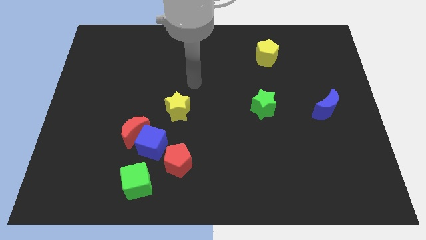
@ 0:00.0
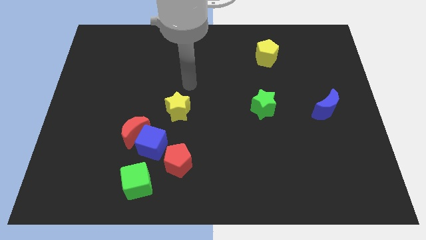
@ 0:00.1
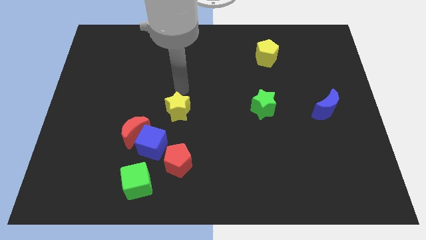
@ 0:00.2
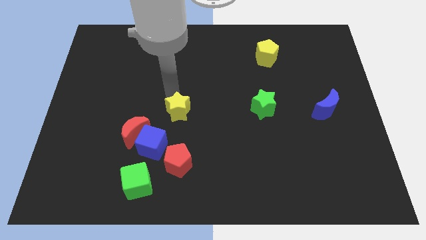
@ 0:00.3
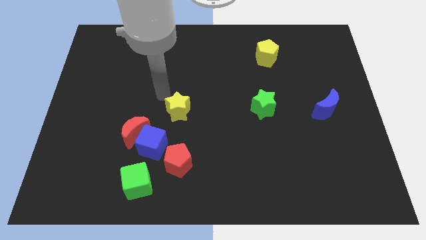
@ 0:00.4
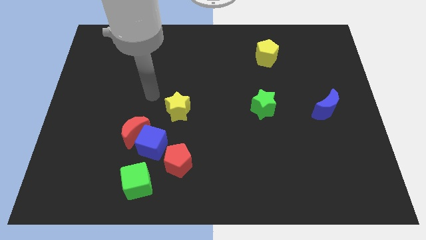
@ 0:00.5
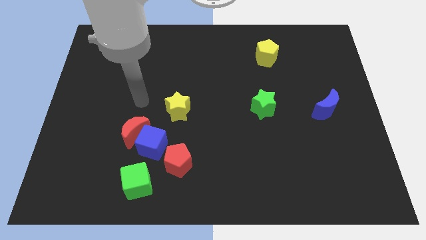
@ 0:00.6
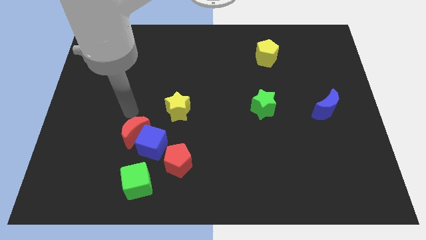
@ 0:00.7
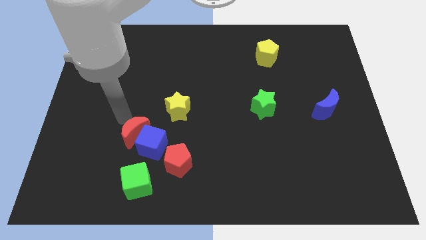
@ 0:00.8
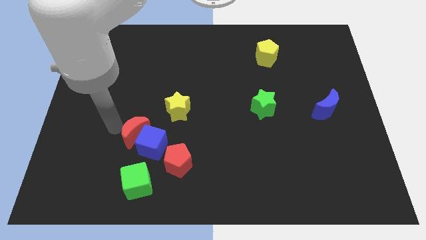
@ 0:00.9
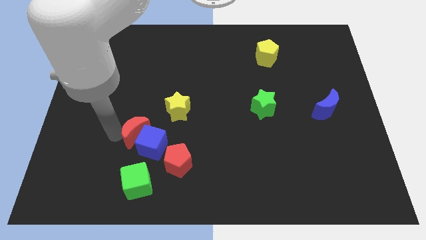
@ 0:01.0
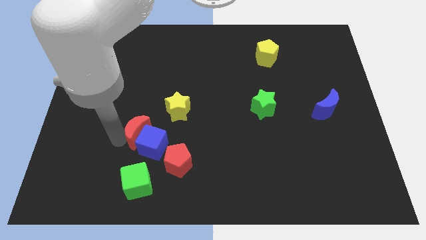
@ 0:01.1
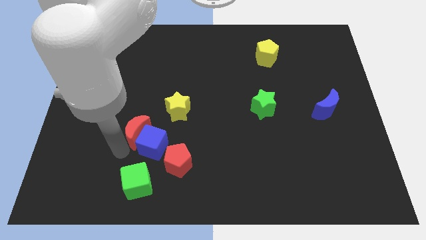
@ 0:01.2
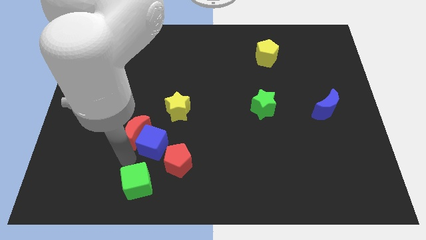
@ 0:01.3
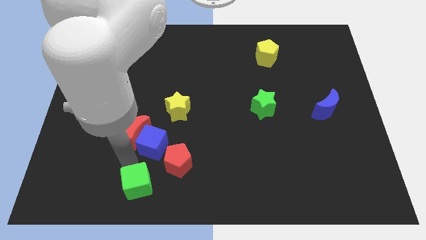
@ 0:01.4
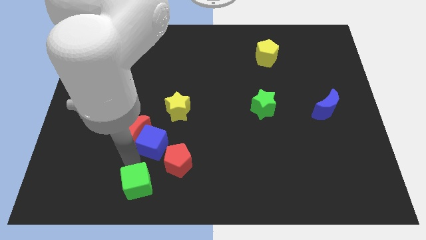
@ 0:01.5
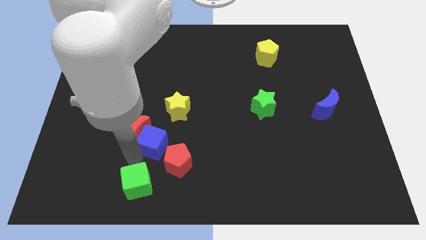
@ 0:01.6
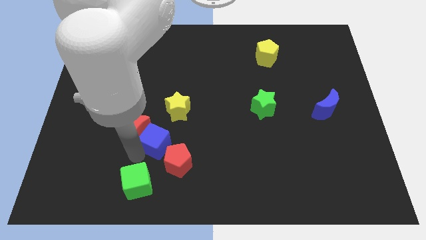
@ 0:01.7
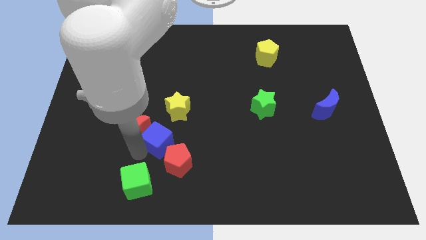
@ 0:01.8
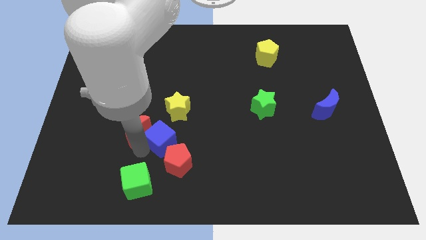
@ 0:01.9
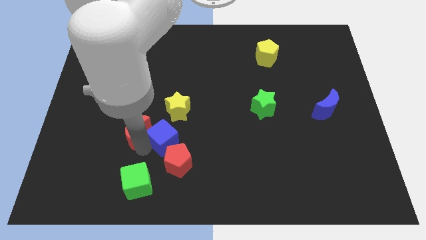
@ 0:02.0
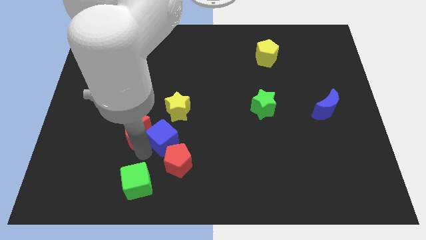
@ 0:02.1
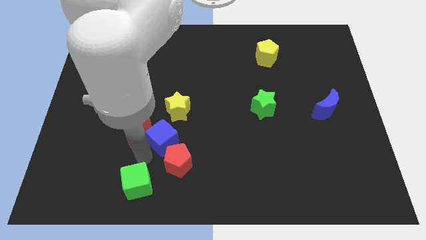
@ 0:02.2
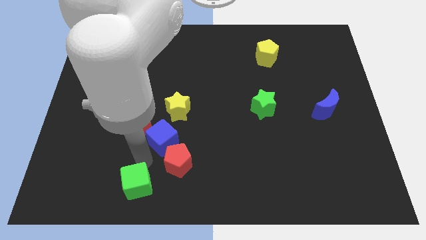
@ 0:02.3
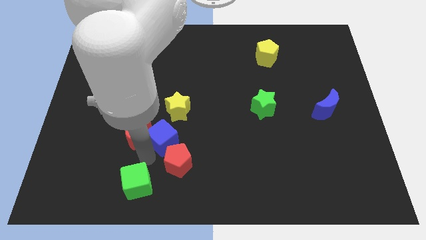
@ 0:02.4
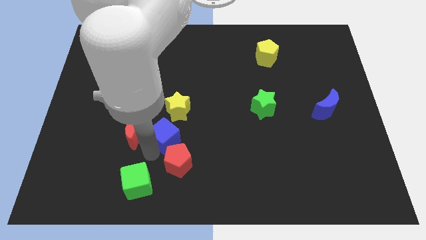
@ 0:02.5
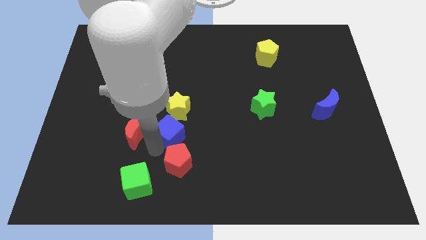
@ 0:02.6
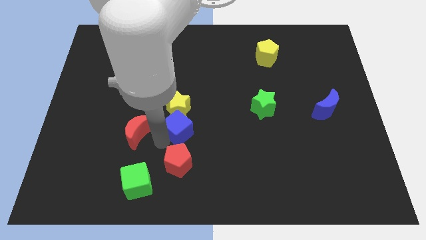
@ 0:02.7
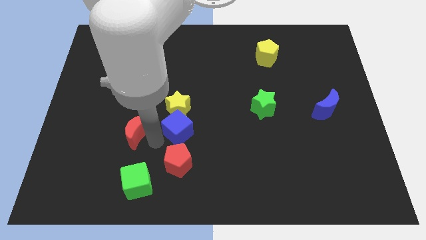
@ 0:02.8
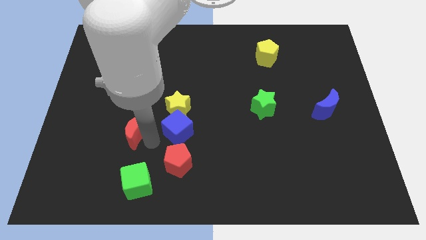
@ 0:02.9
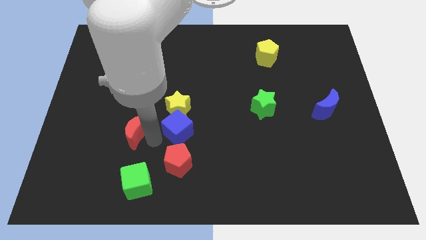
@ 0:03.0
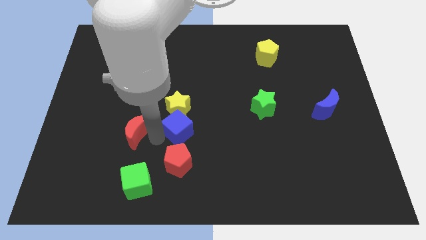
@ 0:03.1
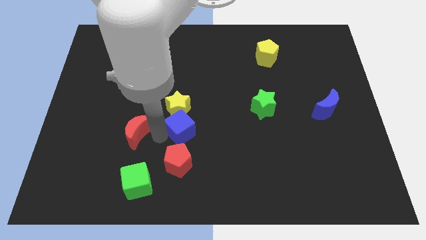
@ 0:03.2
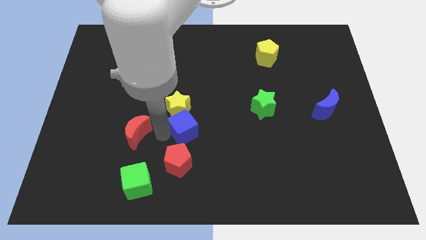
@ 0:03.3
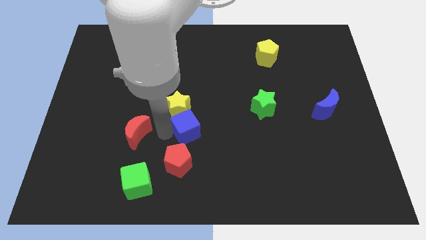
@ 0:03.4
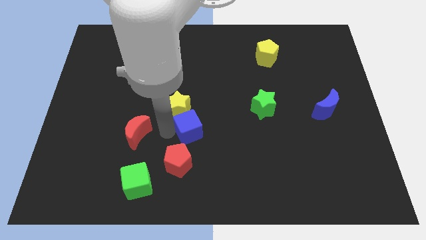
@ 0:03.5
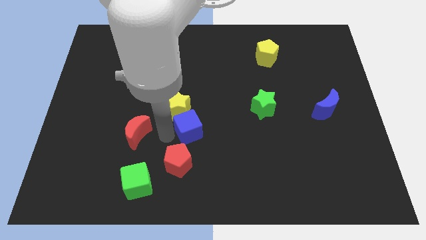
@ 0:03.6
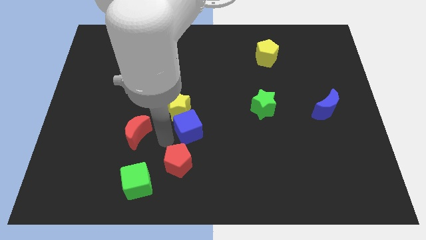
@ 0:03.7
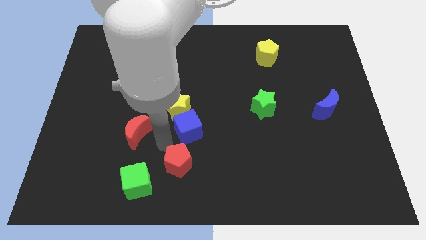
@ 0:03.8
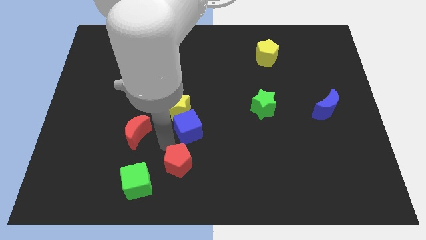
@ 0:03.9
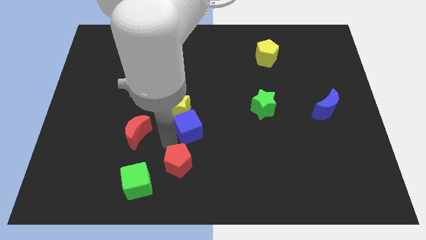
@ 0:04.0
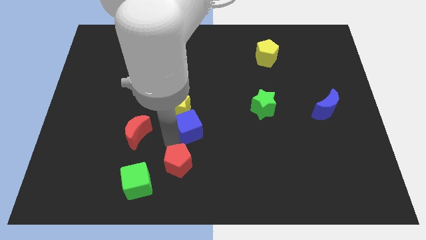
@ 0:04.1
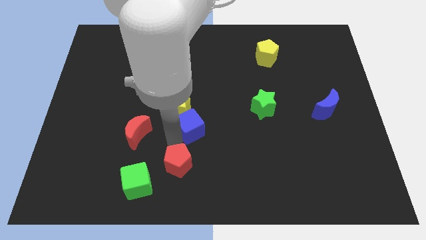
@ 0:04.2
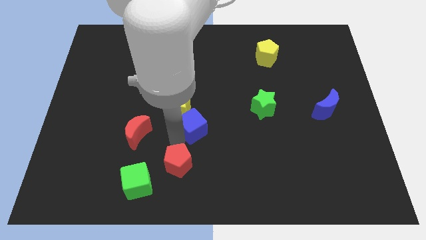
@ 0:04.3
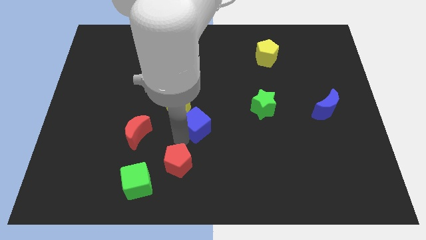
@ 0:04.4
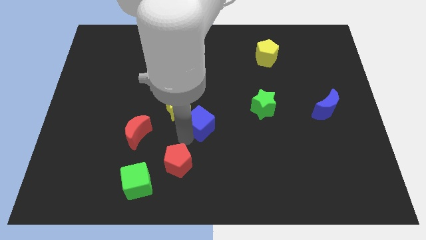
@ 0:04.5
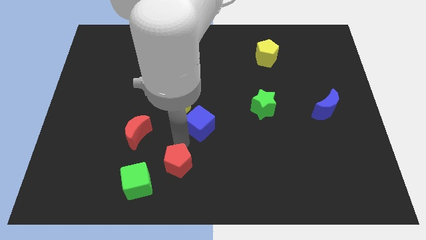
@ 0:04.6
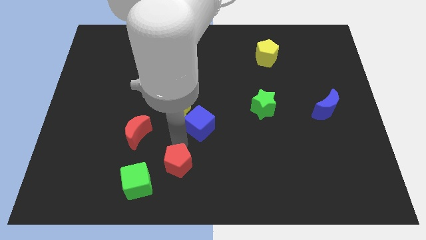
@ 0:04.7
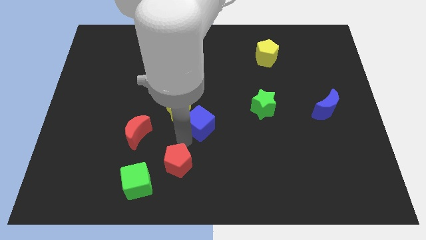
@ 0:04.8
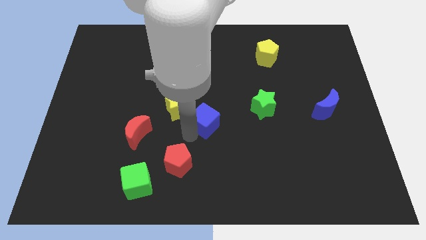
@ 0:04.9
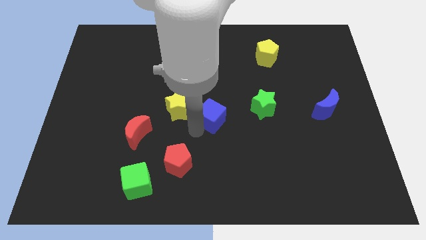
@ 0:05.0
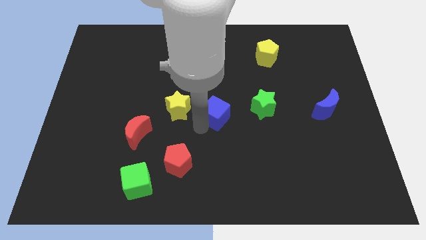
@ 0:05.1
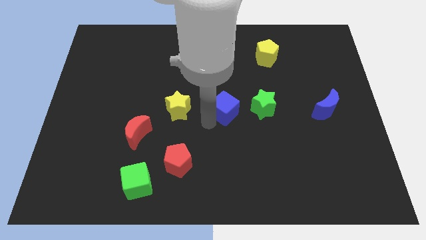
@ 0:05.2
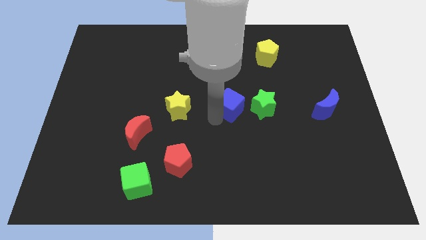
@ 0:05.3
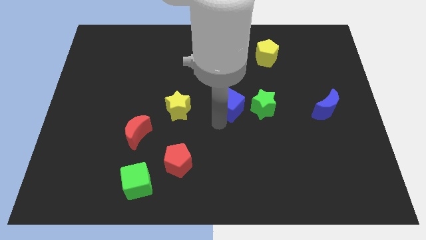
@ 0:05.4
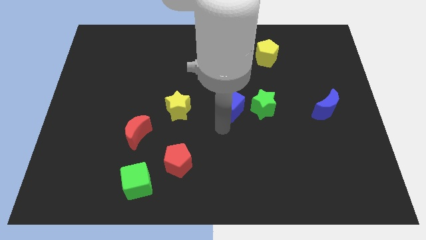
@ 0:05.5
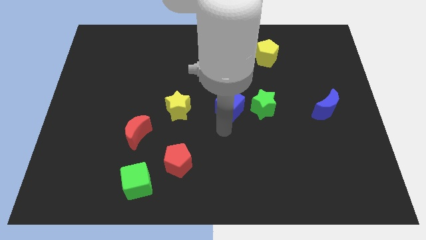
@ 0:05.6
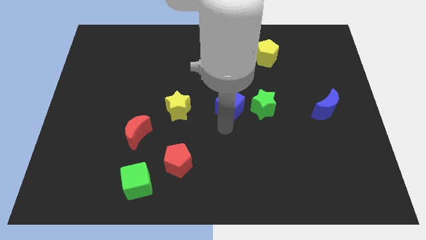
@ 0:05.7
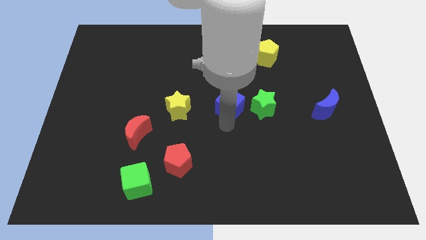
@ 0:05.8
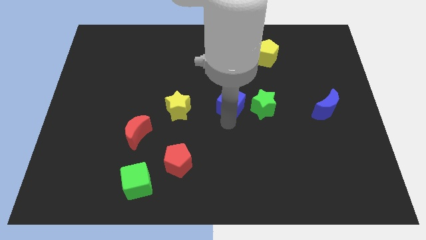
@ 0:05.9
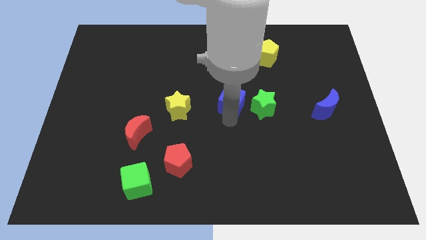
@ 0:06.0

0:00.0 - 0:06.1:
slide the blue cube upwards and right diagonally

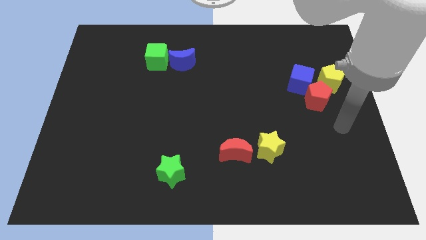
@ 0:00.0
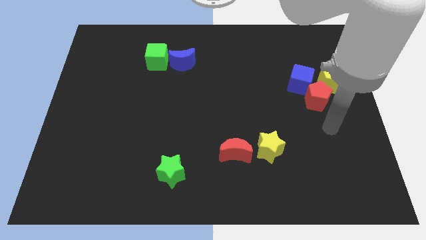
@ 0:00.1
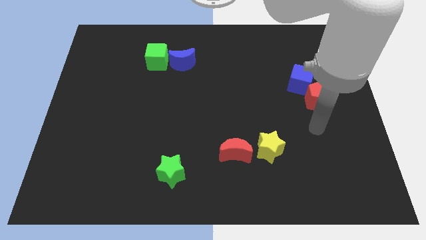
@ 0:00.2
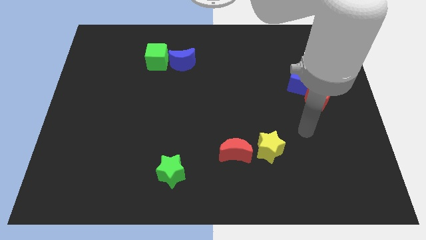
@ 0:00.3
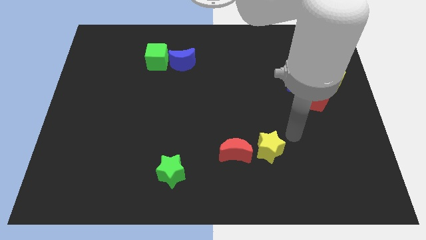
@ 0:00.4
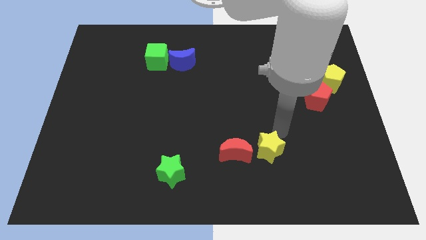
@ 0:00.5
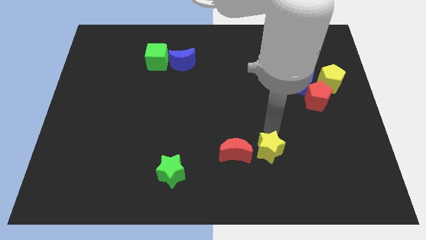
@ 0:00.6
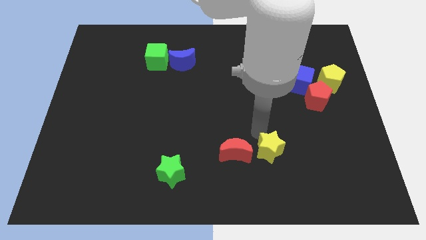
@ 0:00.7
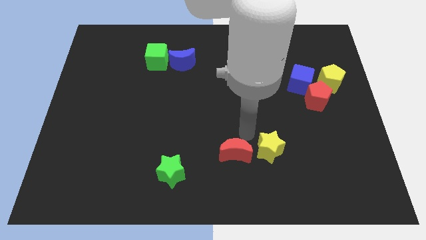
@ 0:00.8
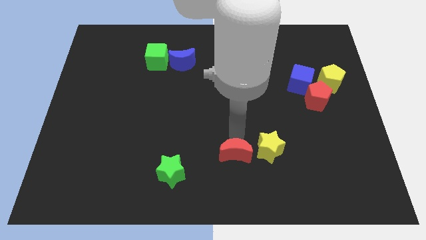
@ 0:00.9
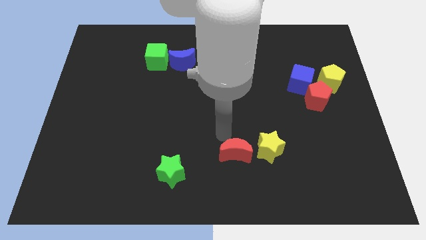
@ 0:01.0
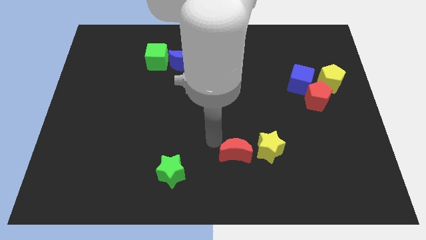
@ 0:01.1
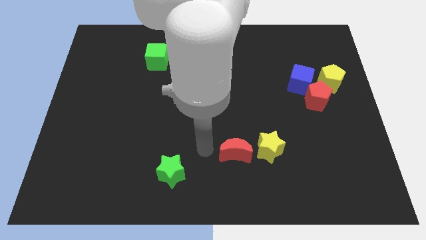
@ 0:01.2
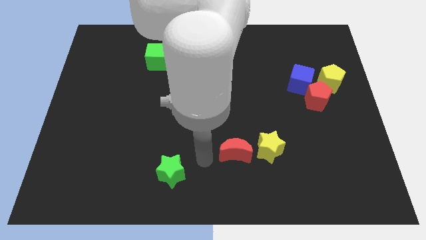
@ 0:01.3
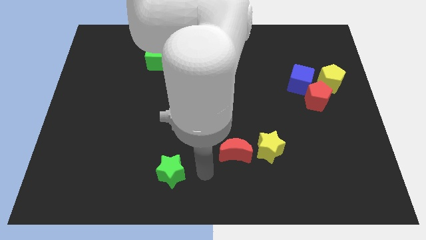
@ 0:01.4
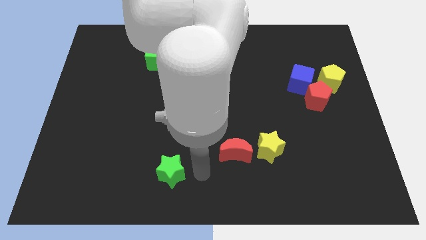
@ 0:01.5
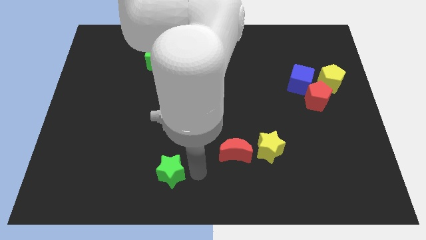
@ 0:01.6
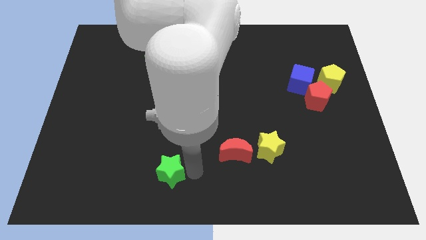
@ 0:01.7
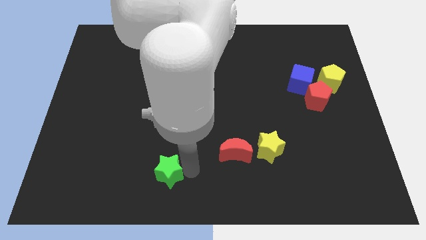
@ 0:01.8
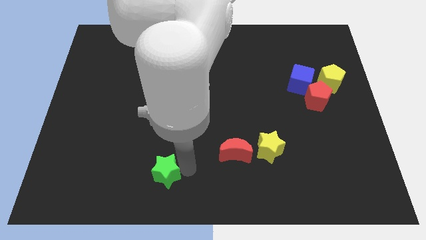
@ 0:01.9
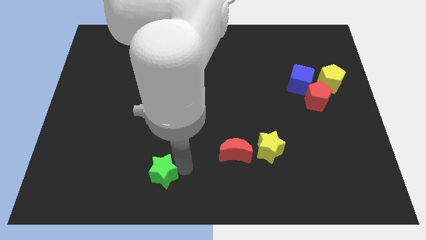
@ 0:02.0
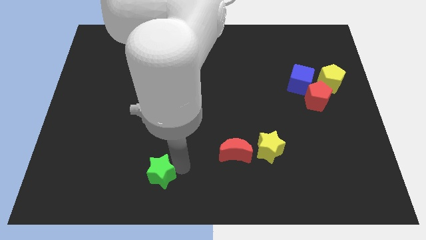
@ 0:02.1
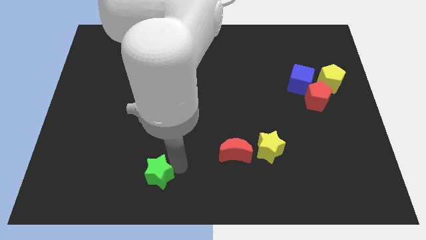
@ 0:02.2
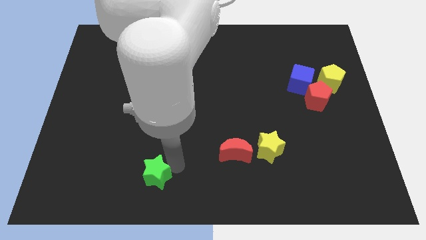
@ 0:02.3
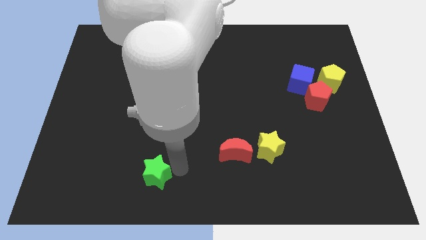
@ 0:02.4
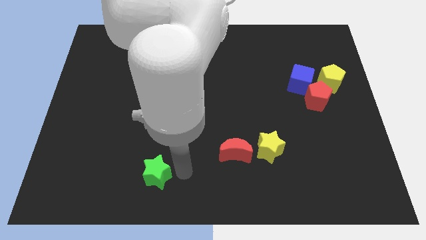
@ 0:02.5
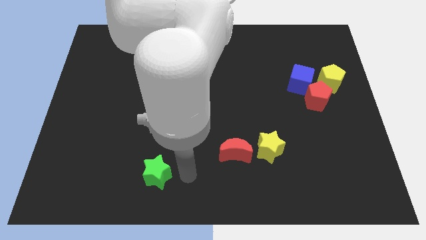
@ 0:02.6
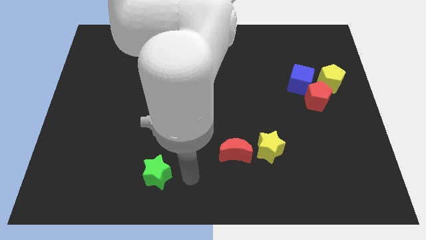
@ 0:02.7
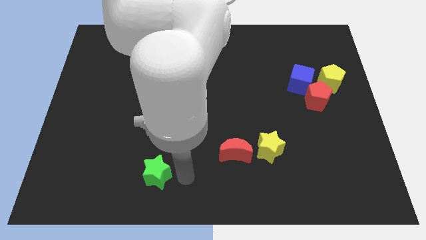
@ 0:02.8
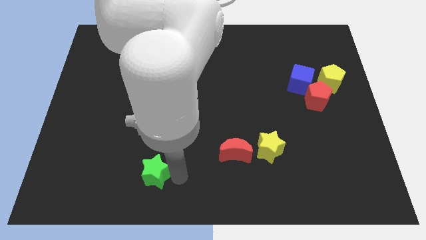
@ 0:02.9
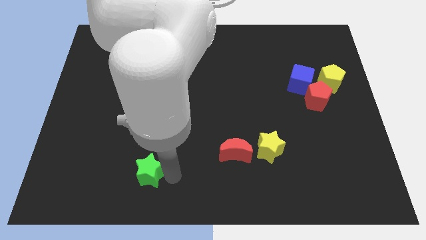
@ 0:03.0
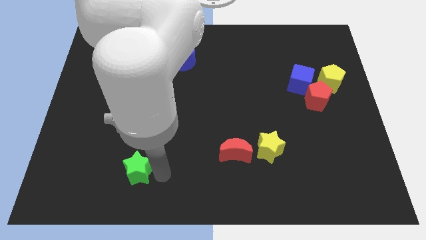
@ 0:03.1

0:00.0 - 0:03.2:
push the green star somewhat to the left
